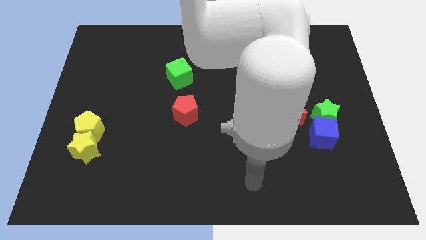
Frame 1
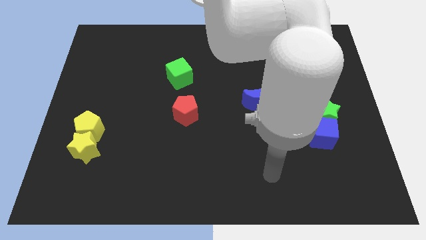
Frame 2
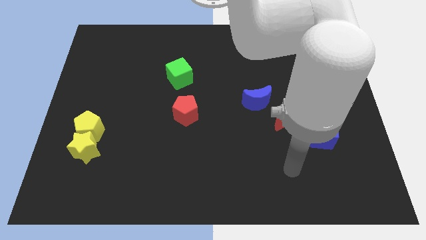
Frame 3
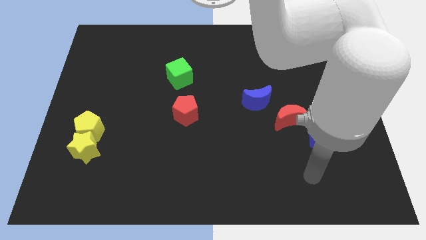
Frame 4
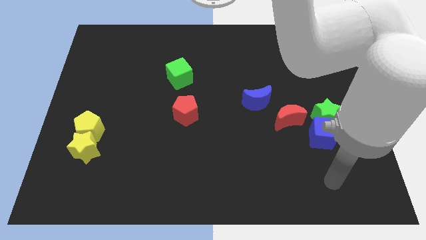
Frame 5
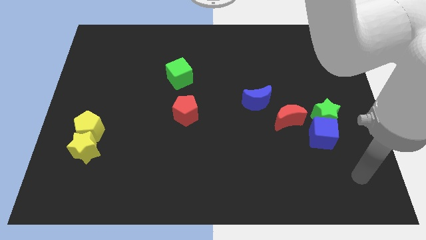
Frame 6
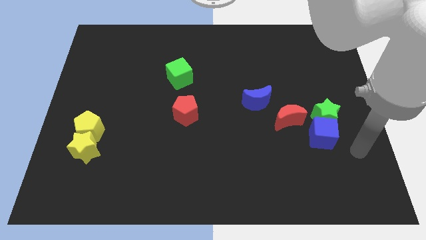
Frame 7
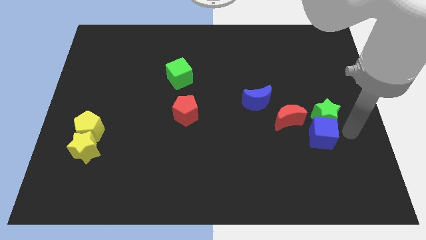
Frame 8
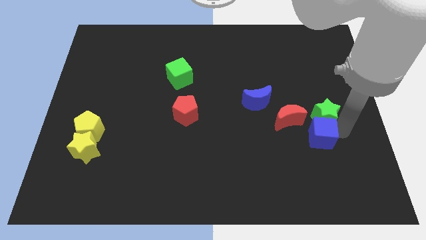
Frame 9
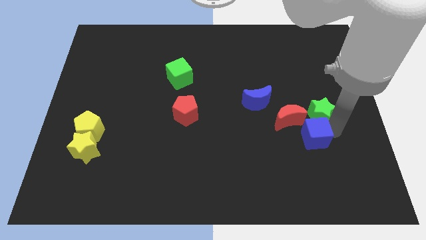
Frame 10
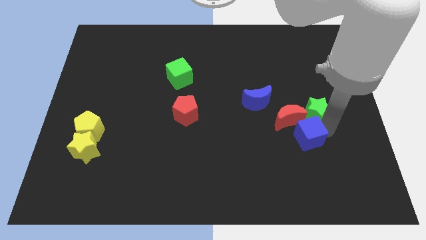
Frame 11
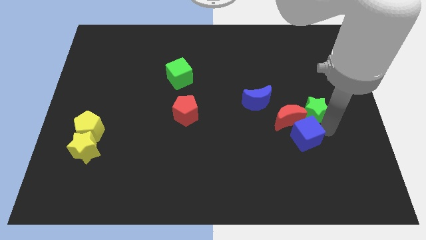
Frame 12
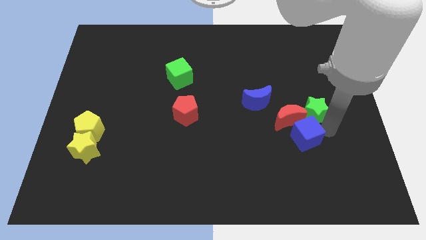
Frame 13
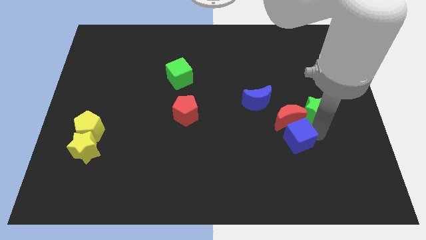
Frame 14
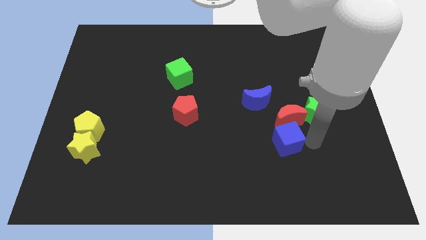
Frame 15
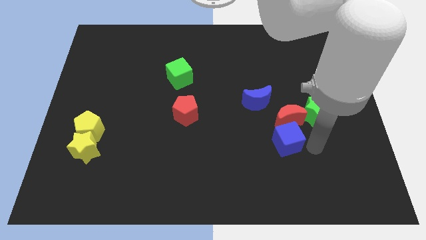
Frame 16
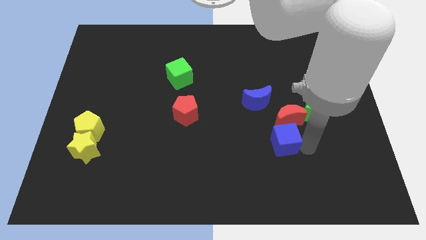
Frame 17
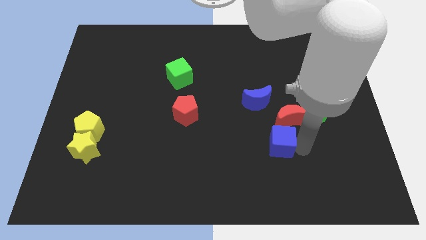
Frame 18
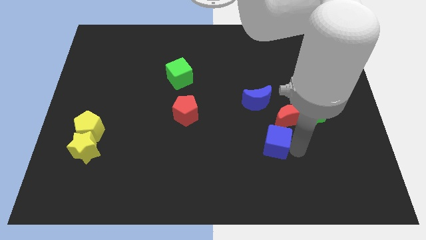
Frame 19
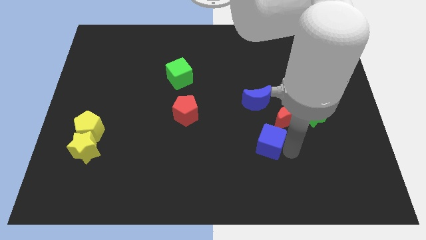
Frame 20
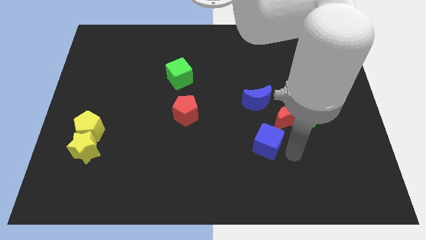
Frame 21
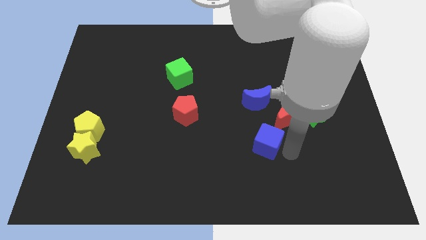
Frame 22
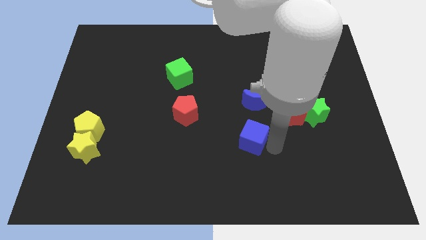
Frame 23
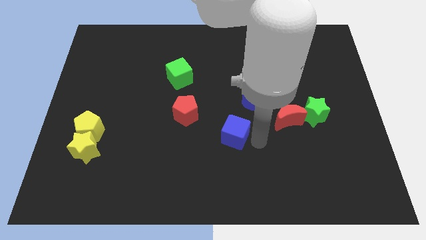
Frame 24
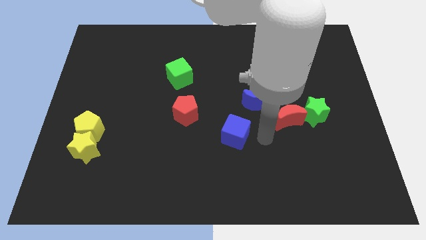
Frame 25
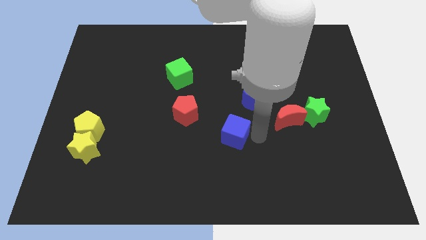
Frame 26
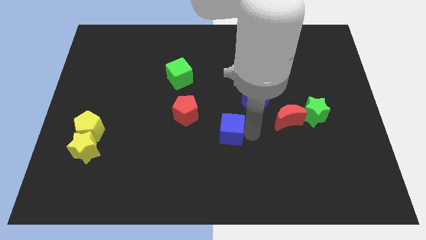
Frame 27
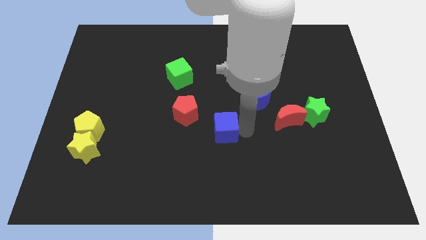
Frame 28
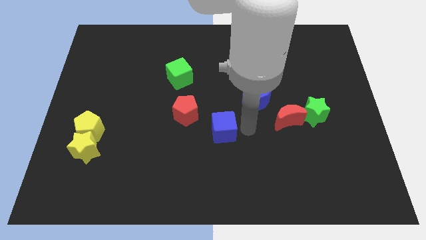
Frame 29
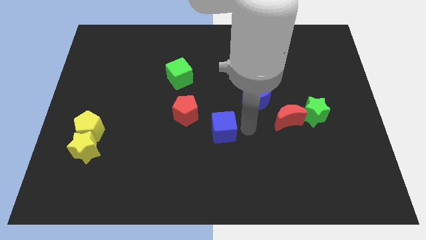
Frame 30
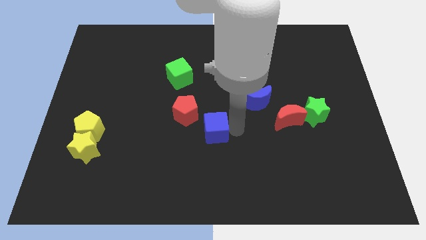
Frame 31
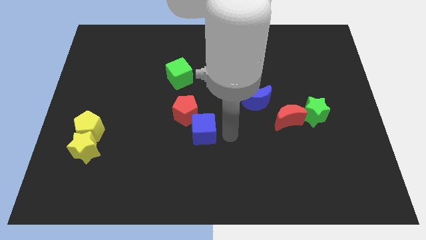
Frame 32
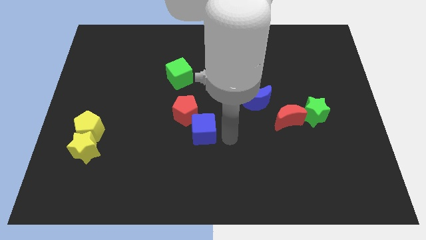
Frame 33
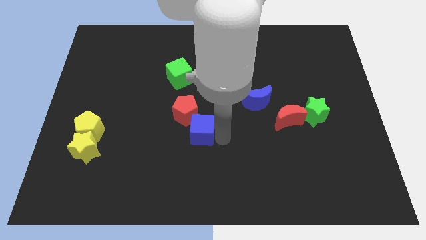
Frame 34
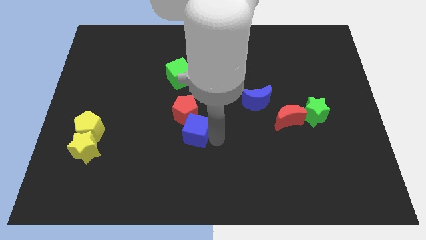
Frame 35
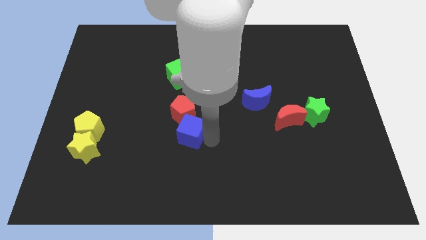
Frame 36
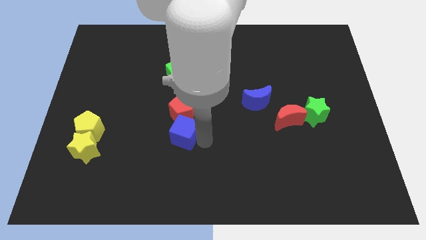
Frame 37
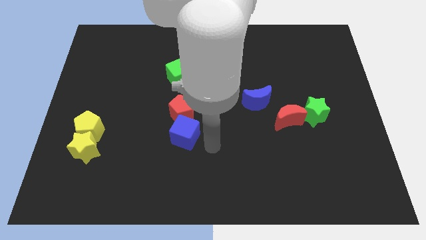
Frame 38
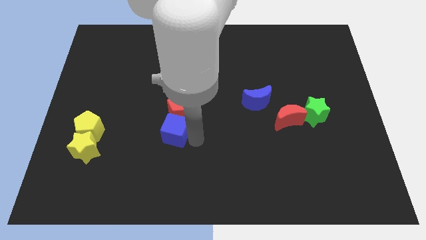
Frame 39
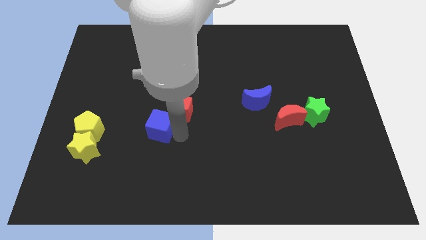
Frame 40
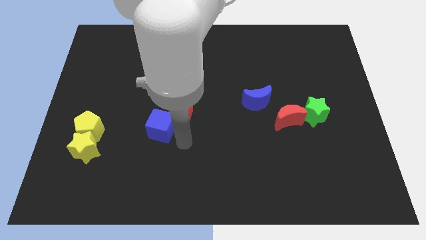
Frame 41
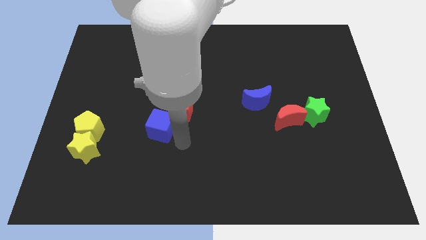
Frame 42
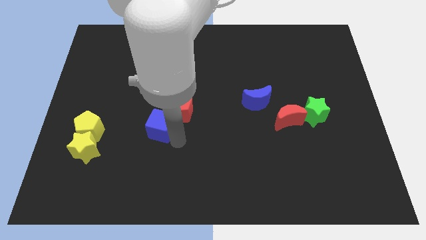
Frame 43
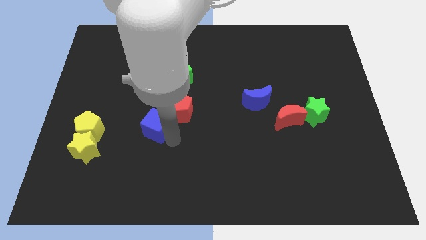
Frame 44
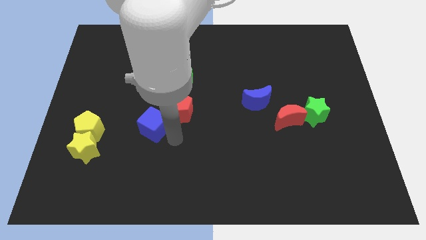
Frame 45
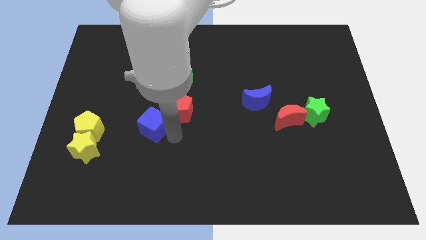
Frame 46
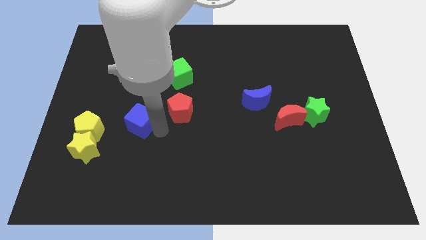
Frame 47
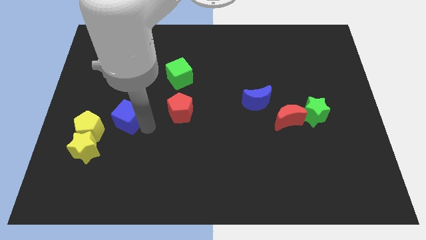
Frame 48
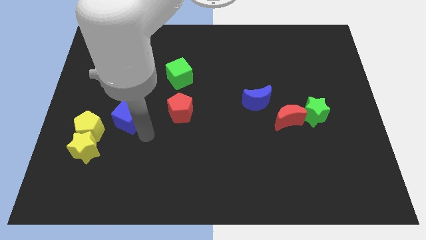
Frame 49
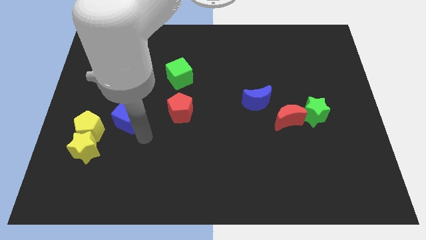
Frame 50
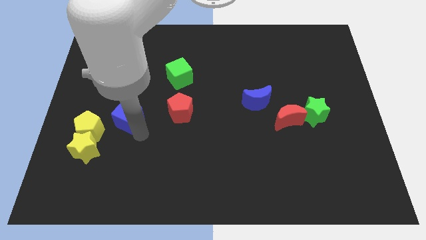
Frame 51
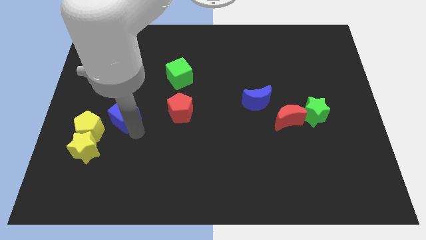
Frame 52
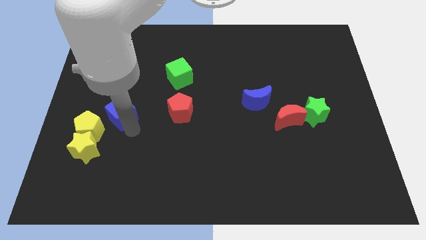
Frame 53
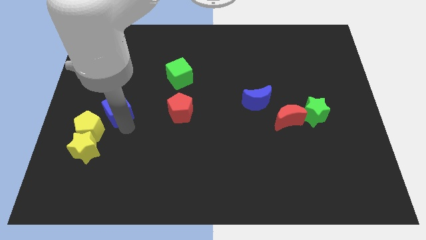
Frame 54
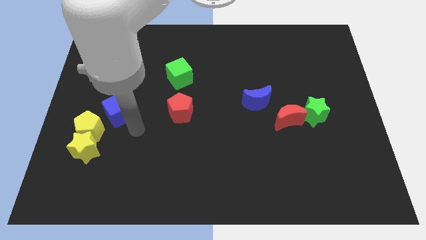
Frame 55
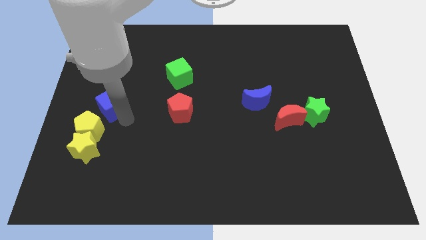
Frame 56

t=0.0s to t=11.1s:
slide the blue cube to the top of the yellow pentagon

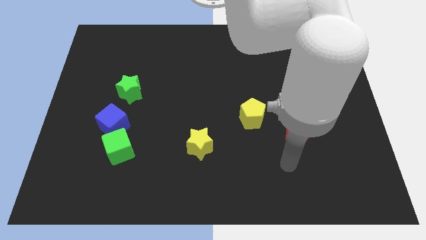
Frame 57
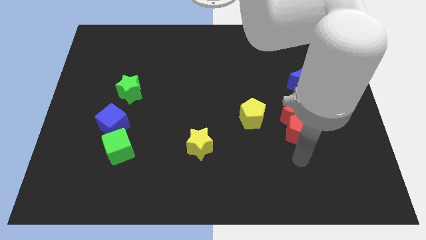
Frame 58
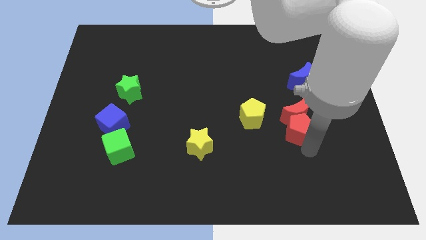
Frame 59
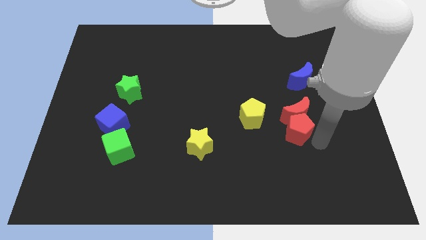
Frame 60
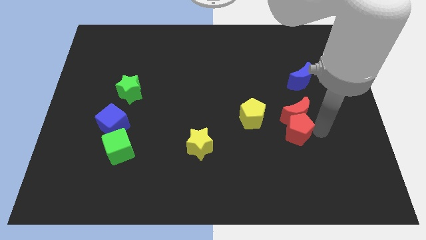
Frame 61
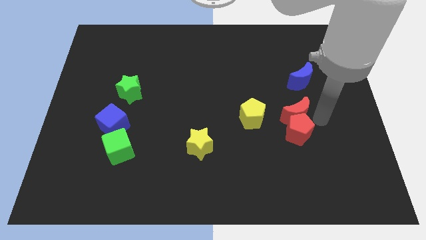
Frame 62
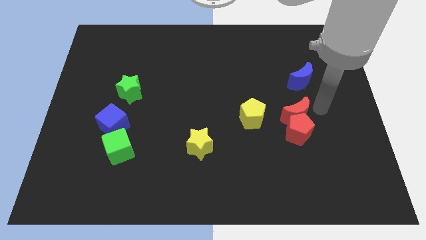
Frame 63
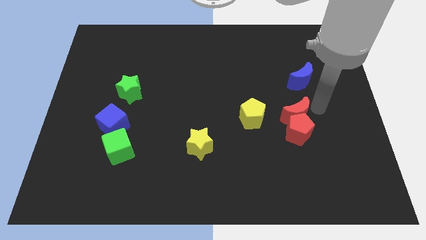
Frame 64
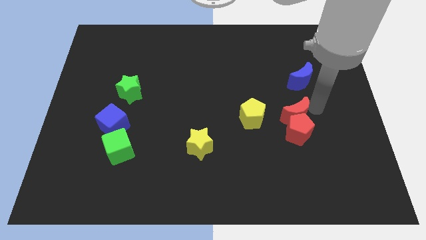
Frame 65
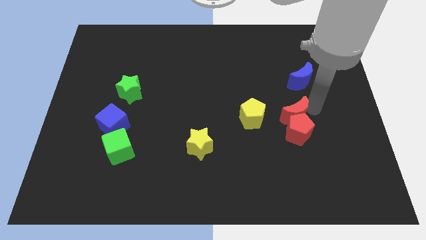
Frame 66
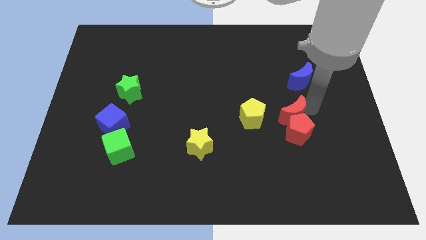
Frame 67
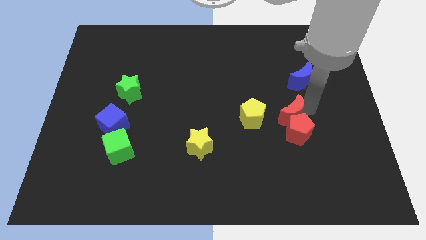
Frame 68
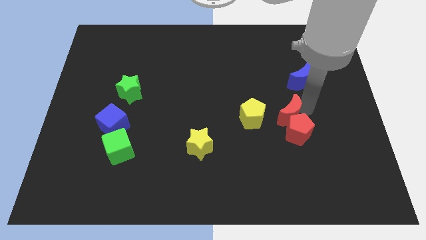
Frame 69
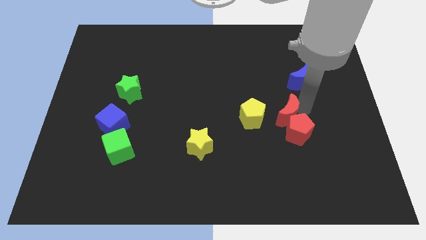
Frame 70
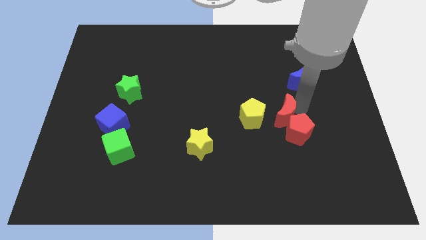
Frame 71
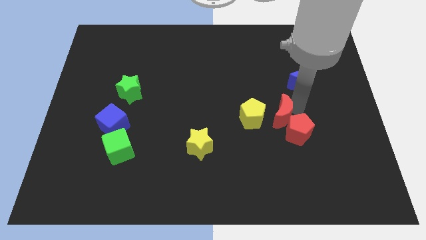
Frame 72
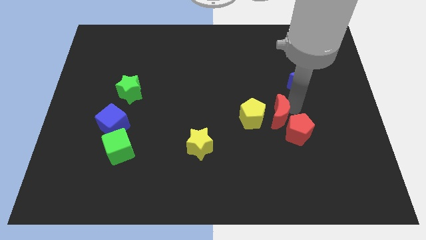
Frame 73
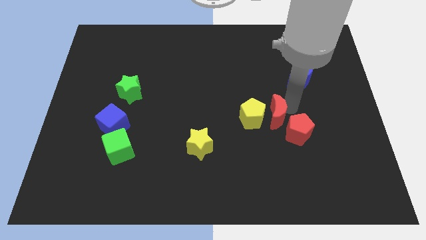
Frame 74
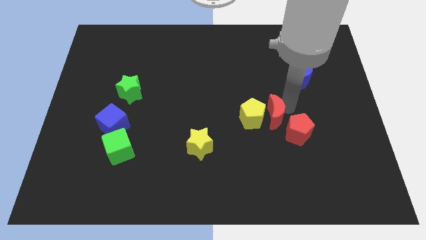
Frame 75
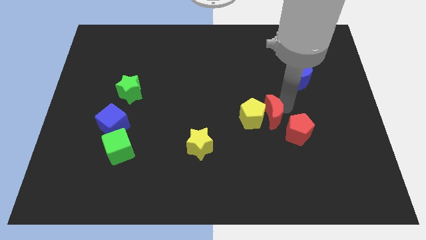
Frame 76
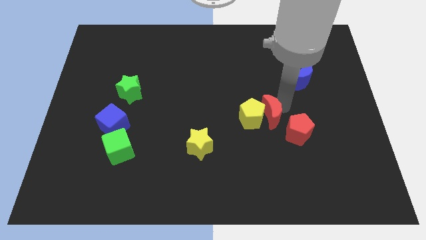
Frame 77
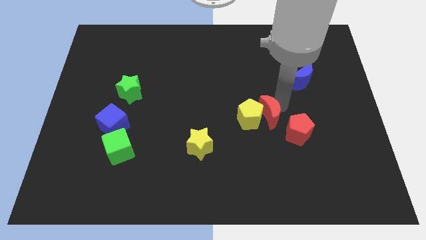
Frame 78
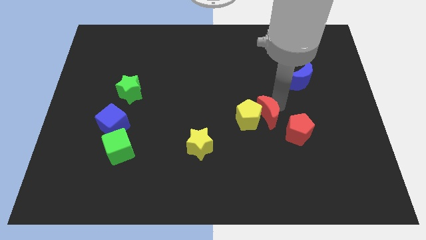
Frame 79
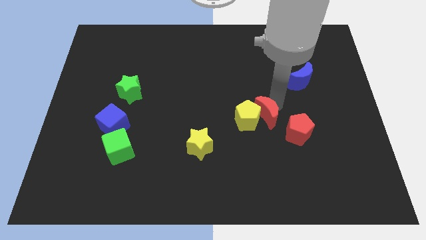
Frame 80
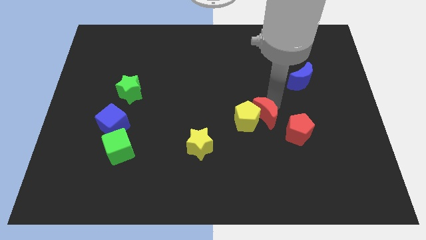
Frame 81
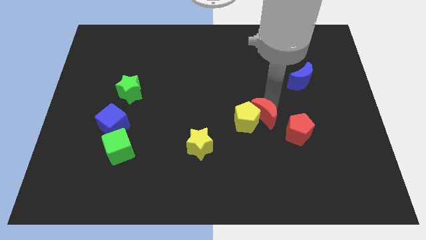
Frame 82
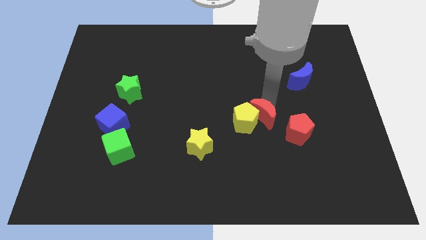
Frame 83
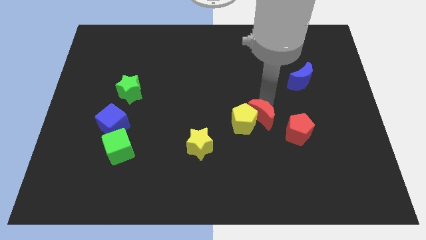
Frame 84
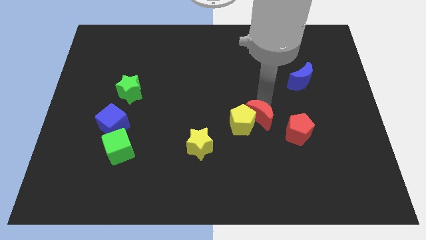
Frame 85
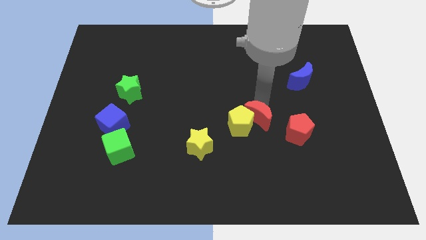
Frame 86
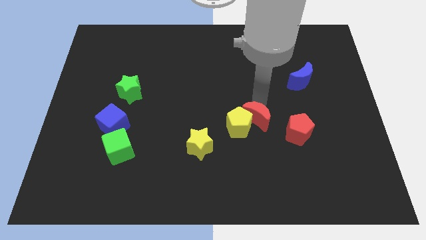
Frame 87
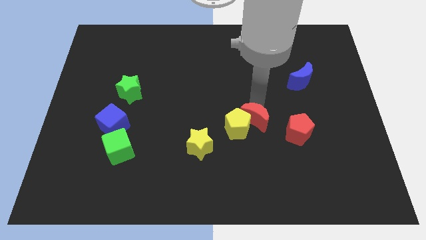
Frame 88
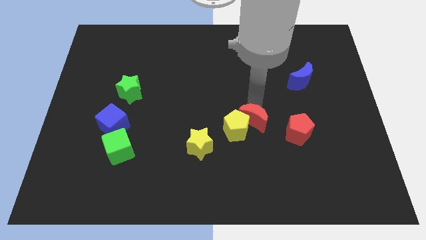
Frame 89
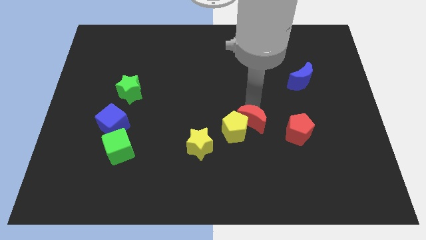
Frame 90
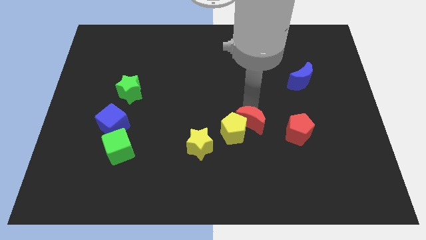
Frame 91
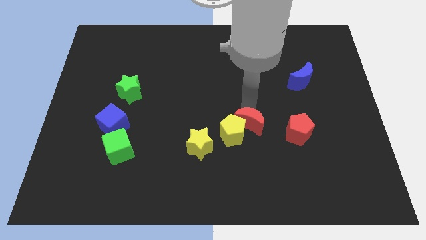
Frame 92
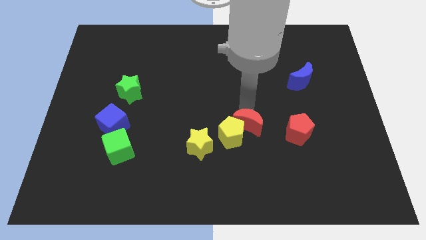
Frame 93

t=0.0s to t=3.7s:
push the red moon to the top right side of the yellow star
